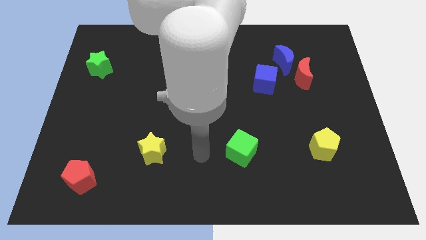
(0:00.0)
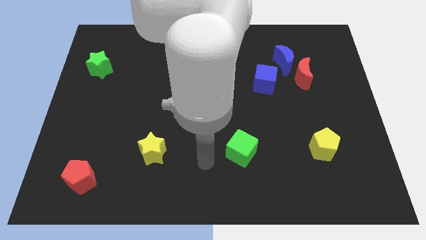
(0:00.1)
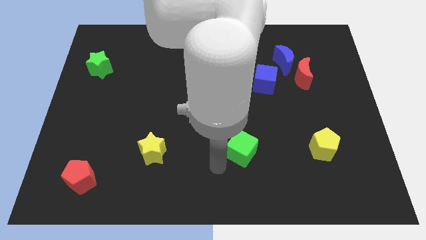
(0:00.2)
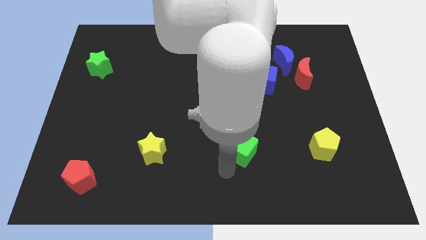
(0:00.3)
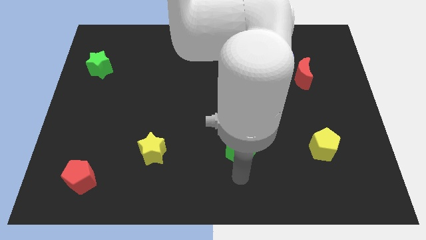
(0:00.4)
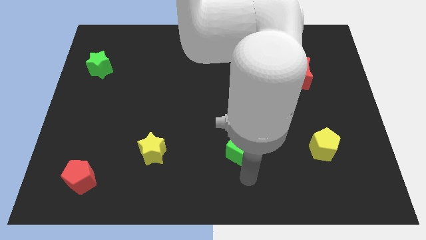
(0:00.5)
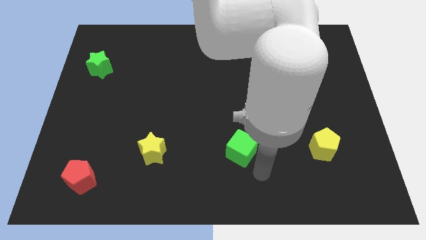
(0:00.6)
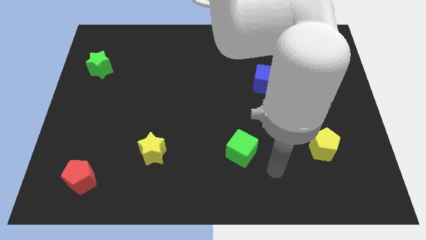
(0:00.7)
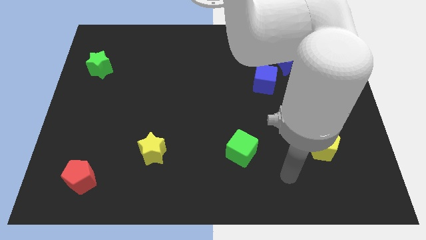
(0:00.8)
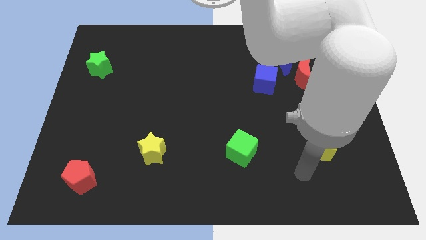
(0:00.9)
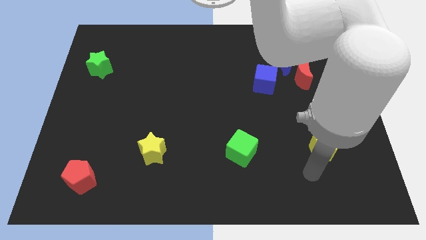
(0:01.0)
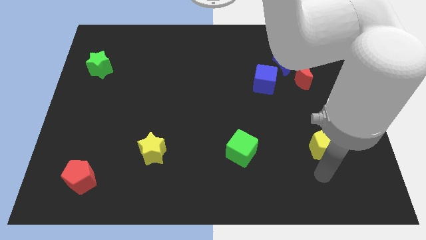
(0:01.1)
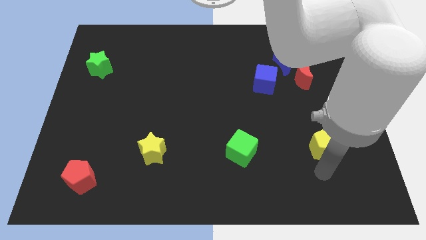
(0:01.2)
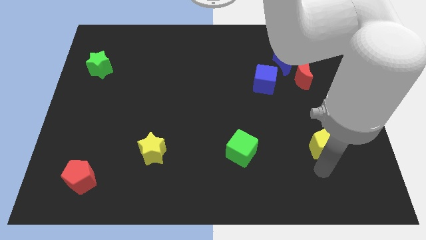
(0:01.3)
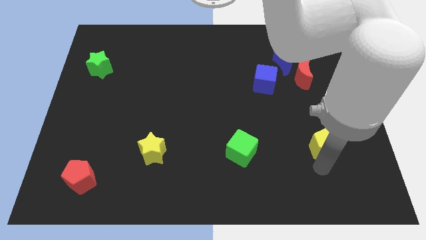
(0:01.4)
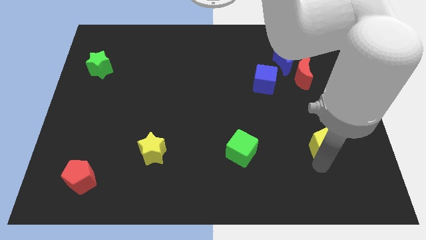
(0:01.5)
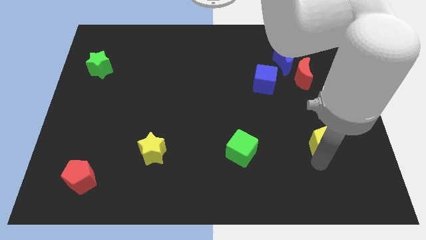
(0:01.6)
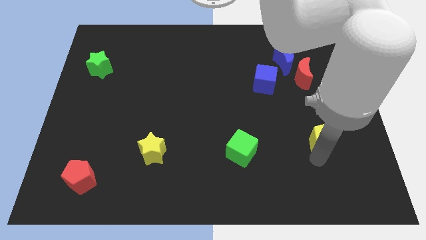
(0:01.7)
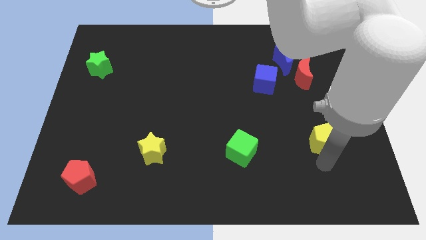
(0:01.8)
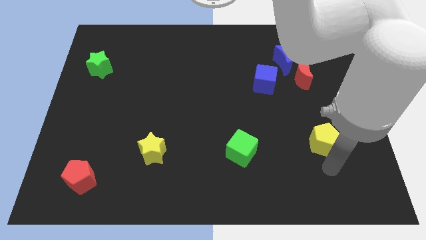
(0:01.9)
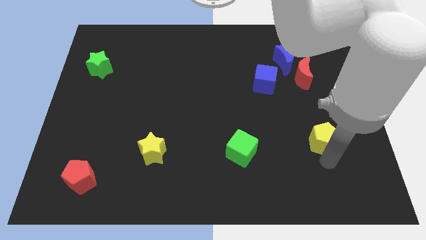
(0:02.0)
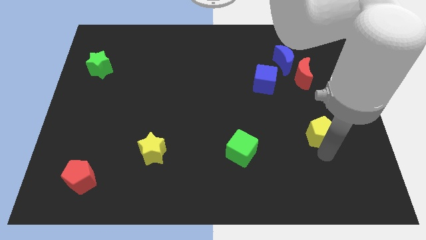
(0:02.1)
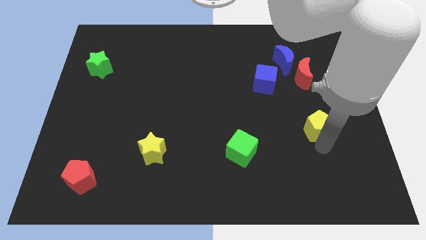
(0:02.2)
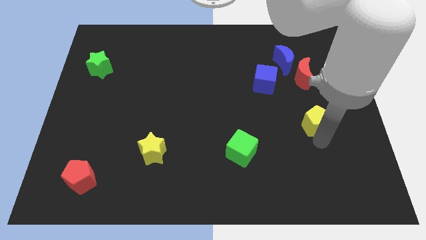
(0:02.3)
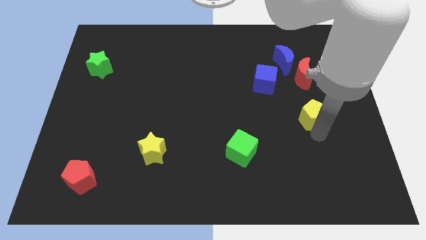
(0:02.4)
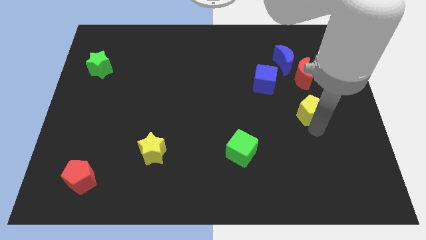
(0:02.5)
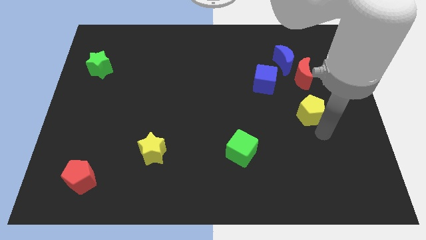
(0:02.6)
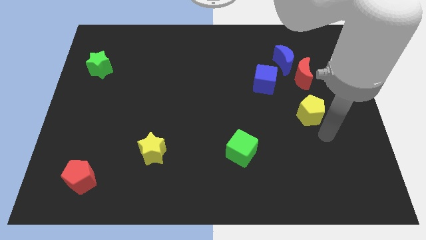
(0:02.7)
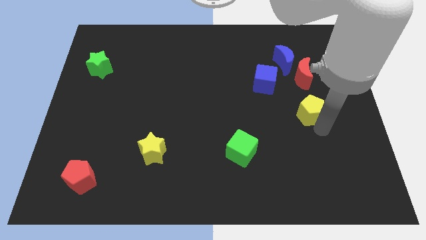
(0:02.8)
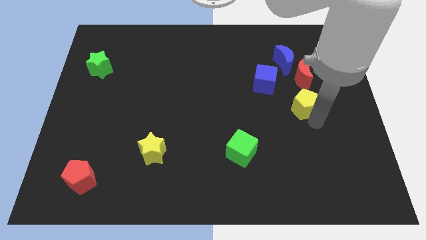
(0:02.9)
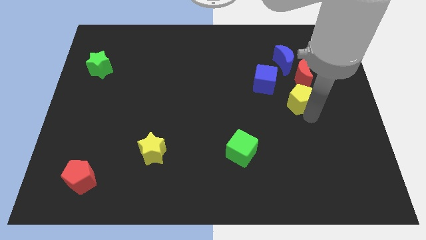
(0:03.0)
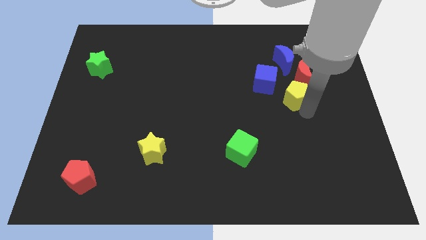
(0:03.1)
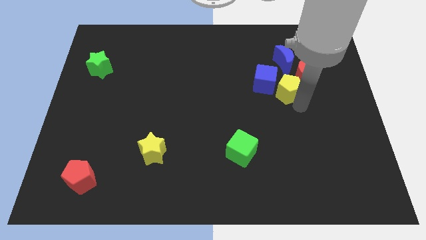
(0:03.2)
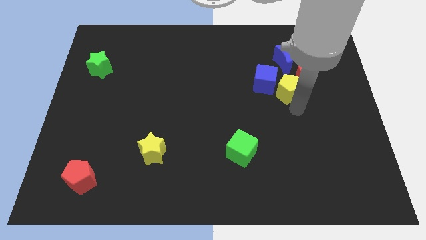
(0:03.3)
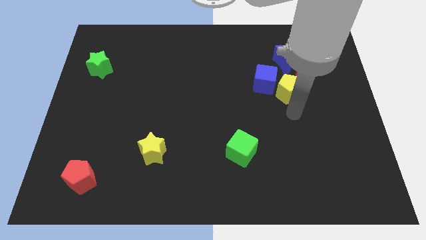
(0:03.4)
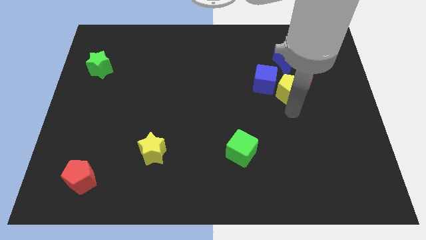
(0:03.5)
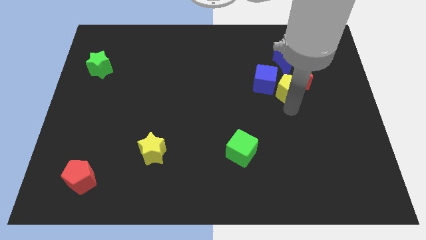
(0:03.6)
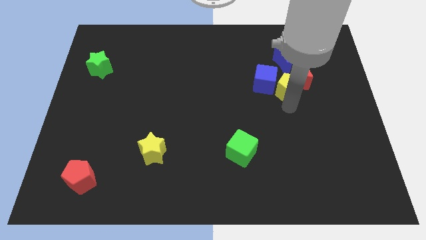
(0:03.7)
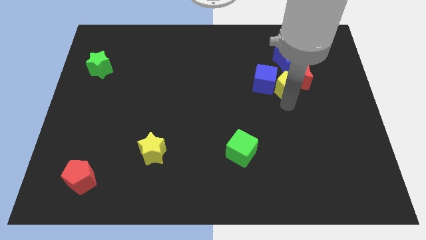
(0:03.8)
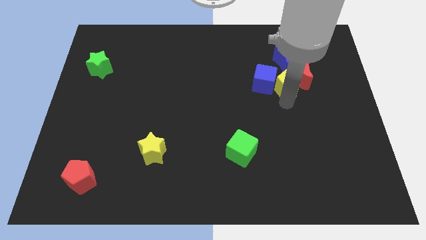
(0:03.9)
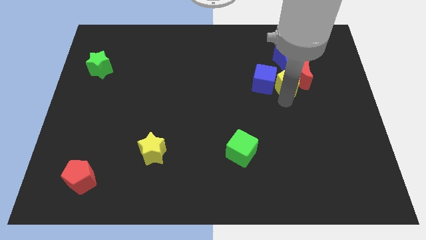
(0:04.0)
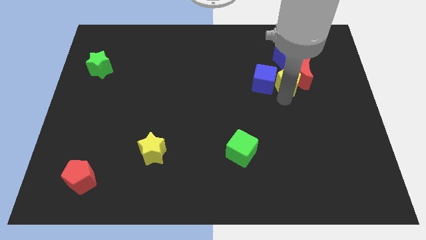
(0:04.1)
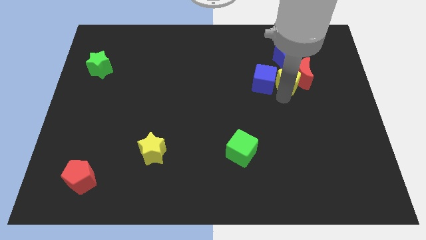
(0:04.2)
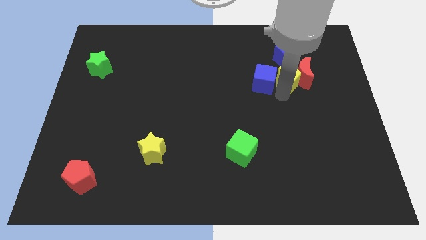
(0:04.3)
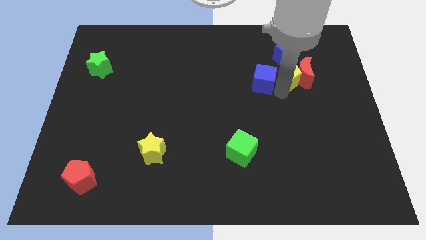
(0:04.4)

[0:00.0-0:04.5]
push the yellow pentagon to the blue moon

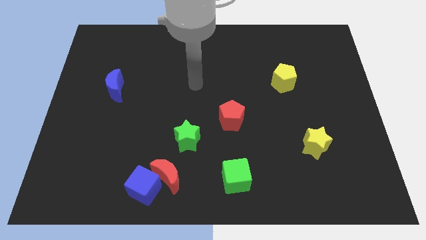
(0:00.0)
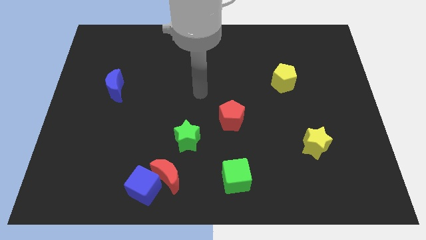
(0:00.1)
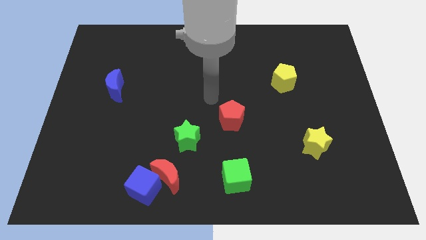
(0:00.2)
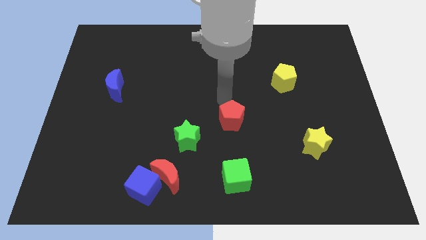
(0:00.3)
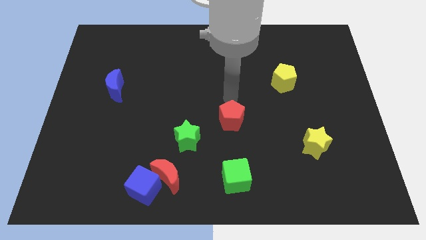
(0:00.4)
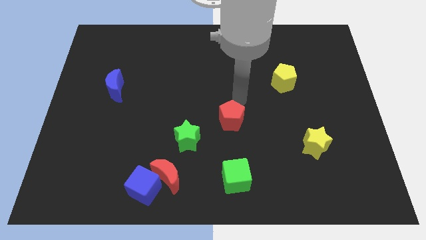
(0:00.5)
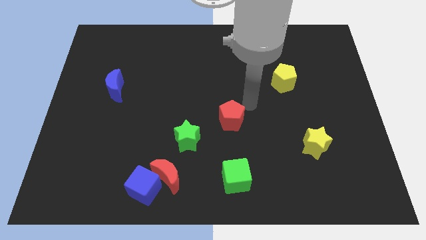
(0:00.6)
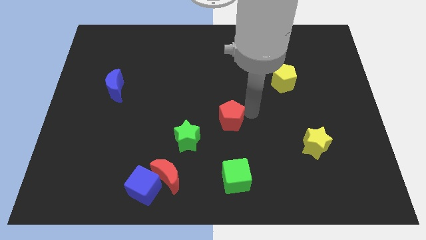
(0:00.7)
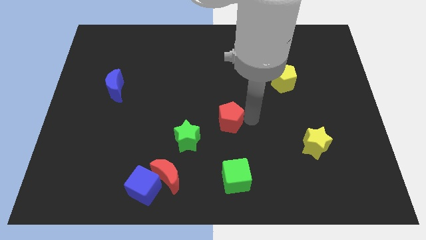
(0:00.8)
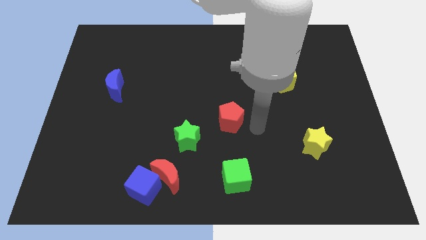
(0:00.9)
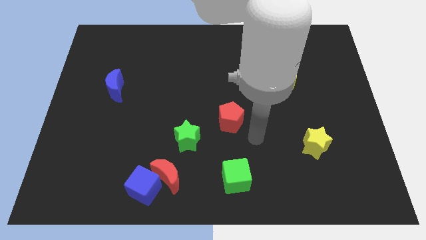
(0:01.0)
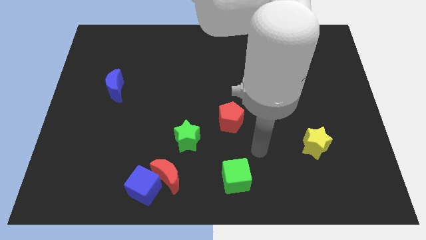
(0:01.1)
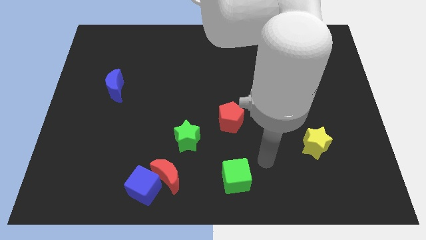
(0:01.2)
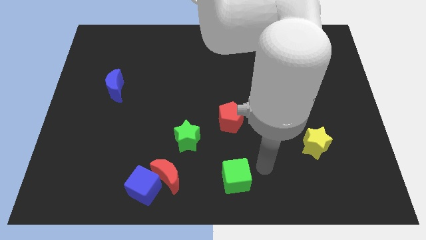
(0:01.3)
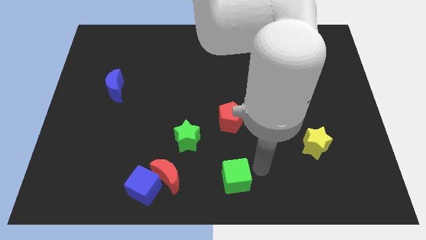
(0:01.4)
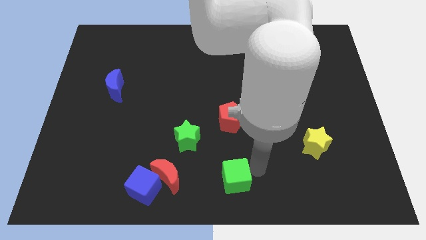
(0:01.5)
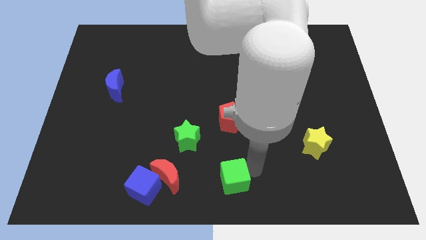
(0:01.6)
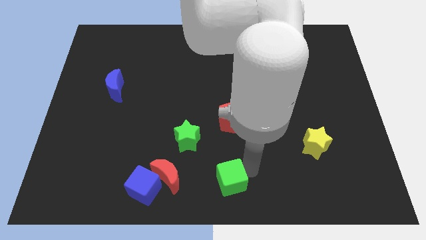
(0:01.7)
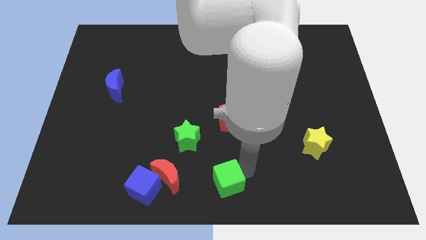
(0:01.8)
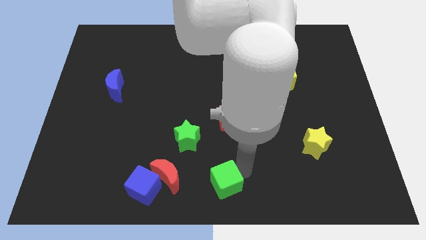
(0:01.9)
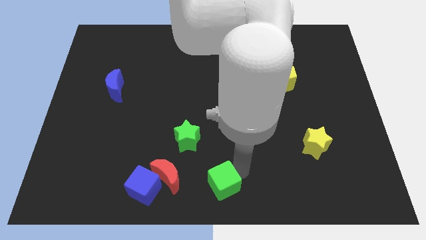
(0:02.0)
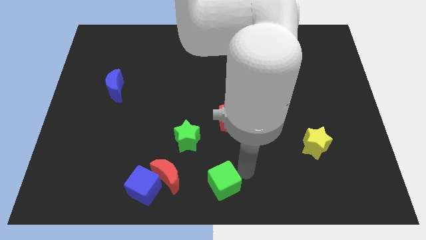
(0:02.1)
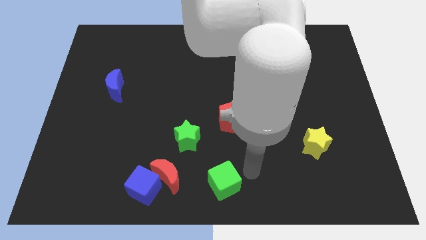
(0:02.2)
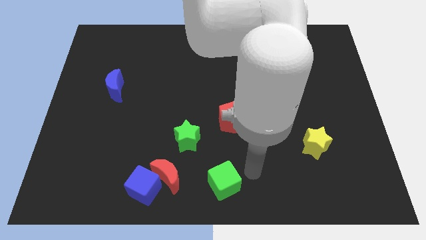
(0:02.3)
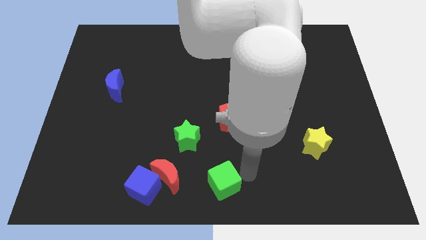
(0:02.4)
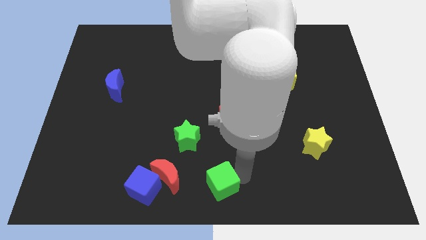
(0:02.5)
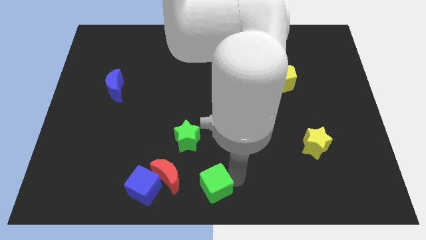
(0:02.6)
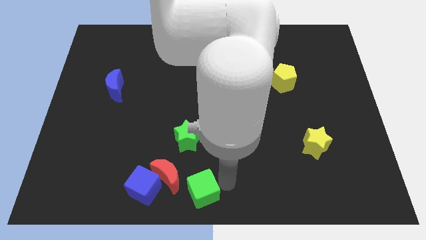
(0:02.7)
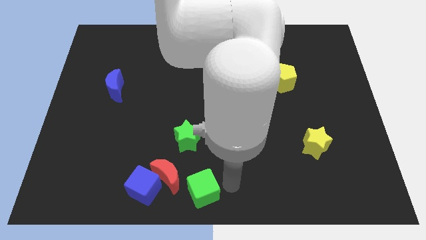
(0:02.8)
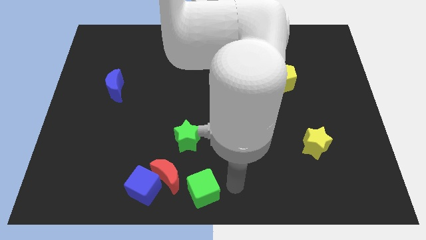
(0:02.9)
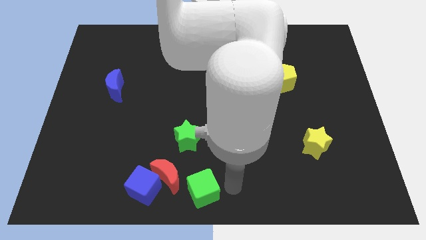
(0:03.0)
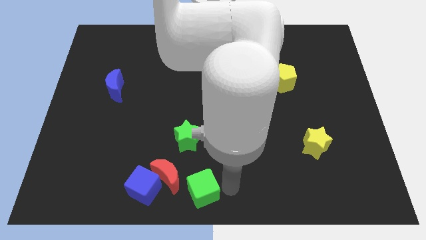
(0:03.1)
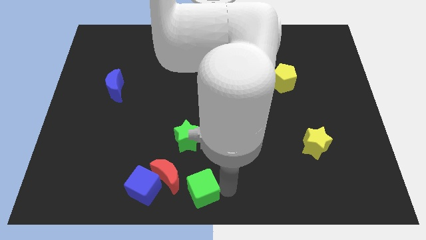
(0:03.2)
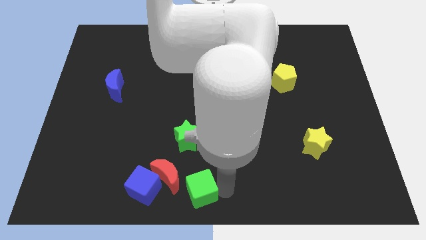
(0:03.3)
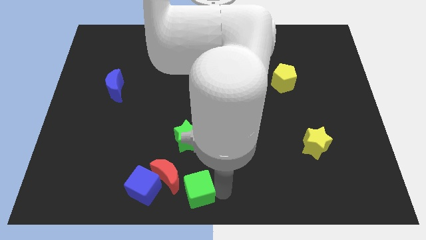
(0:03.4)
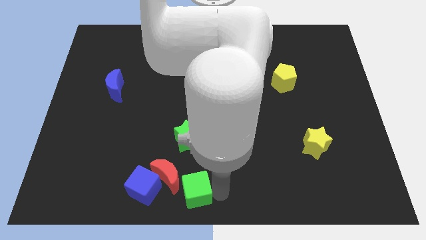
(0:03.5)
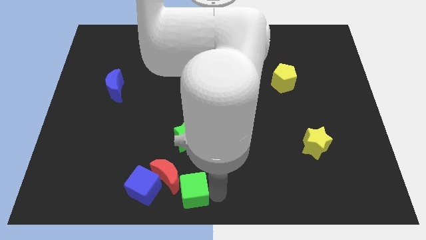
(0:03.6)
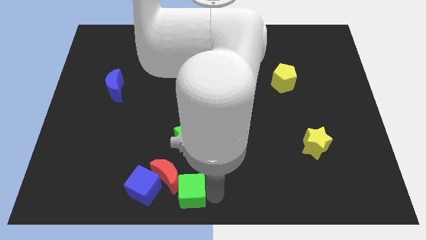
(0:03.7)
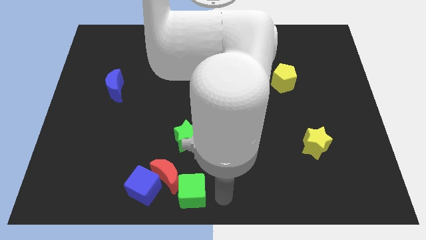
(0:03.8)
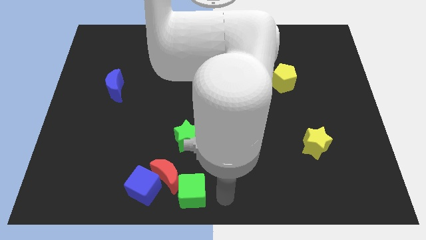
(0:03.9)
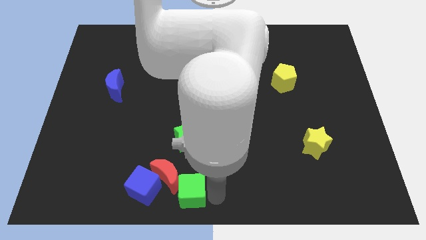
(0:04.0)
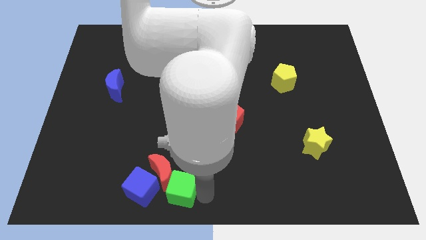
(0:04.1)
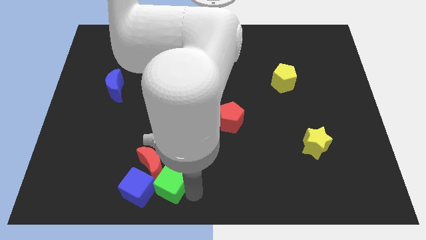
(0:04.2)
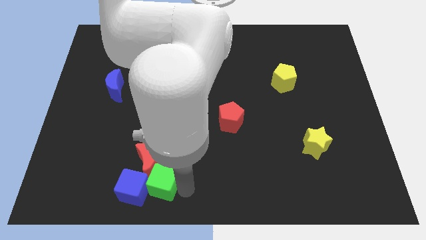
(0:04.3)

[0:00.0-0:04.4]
move the green cube to the blue cube
